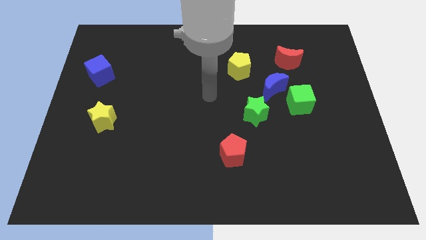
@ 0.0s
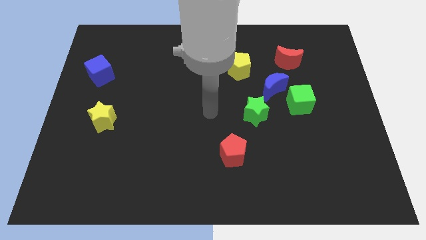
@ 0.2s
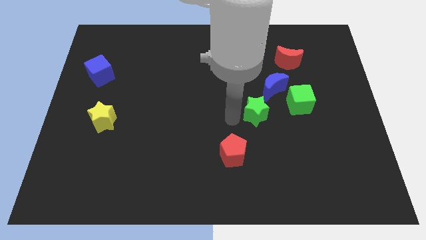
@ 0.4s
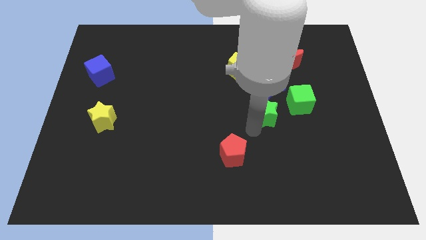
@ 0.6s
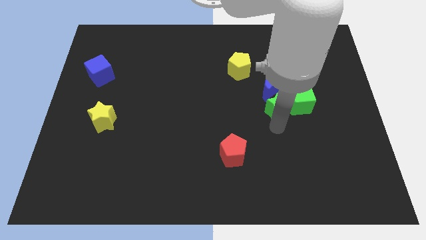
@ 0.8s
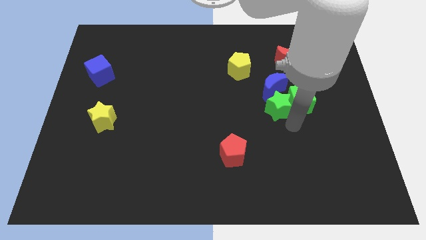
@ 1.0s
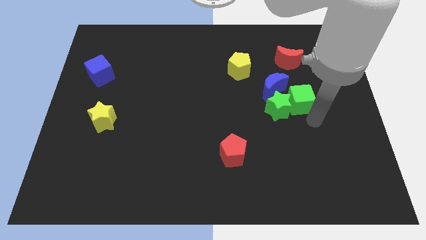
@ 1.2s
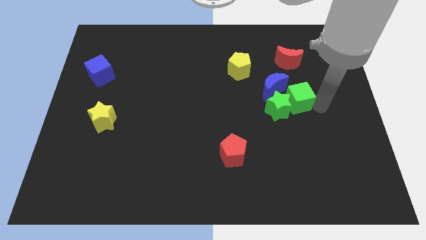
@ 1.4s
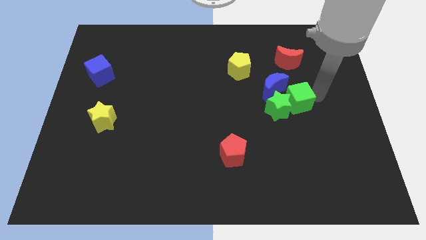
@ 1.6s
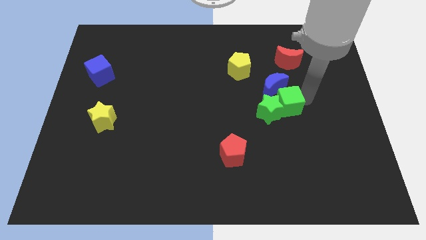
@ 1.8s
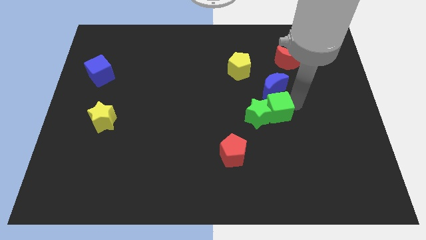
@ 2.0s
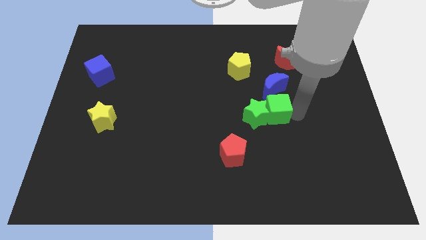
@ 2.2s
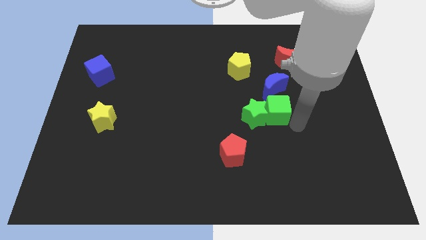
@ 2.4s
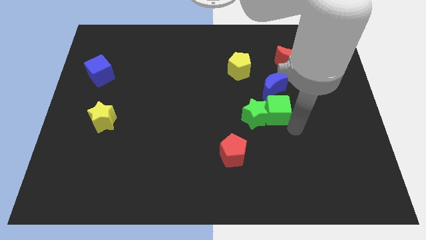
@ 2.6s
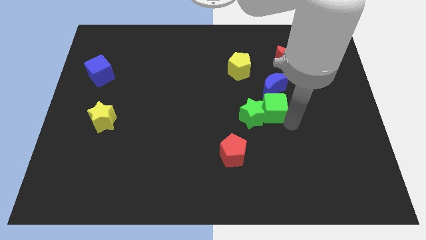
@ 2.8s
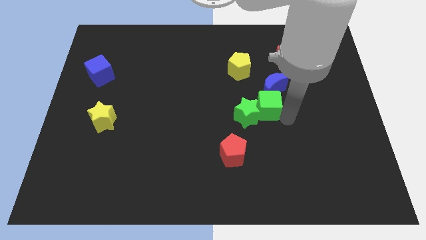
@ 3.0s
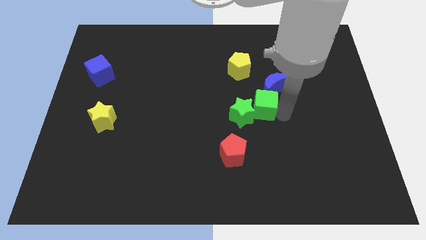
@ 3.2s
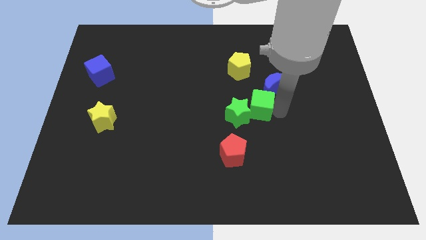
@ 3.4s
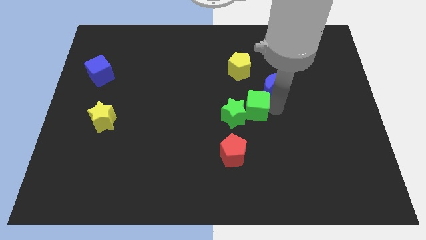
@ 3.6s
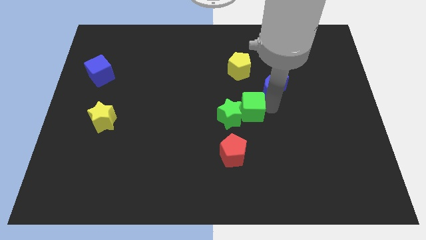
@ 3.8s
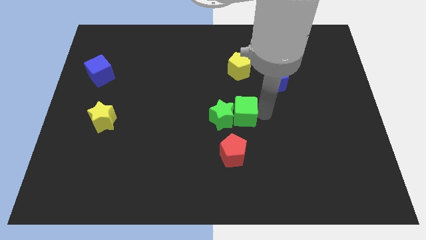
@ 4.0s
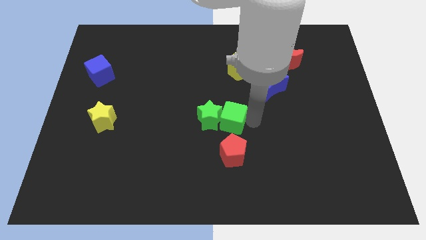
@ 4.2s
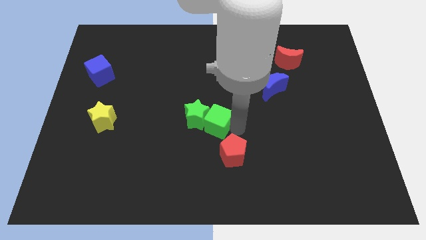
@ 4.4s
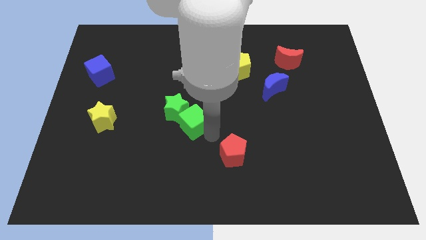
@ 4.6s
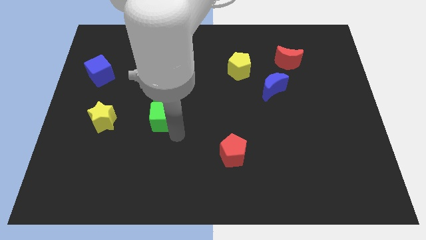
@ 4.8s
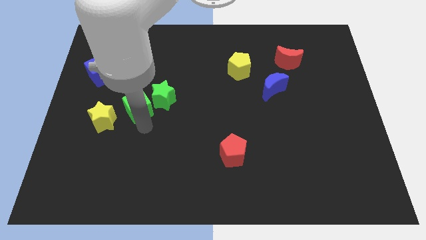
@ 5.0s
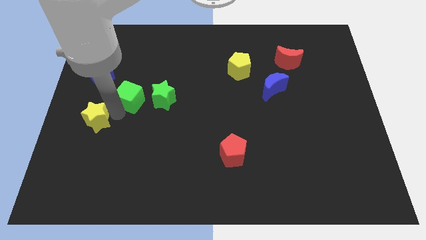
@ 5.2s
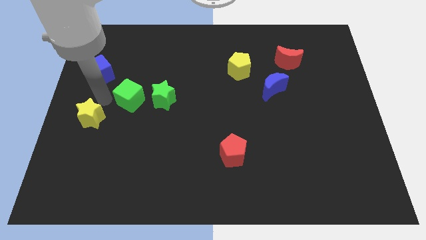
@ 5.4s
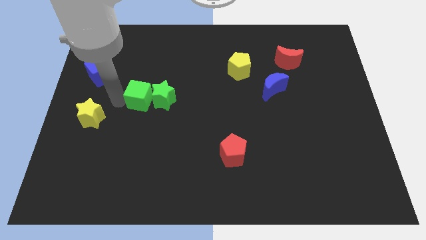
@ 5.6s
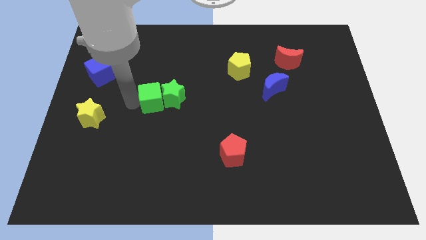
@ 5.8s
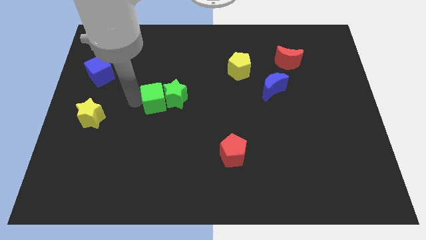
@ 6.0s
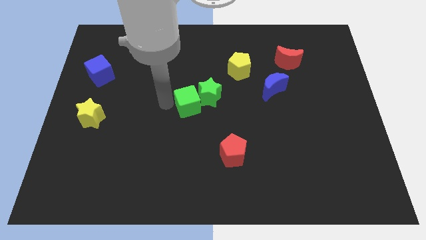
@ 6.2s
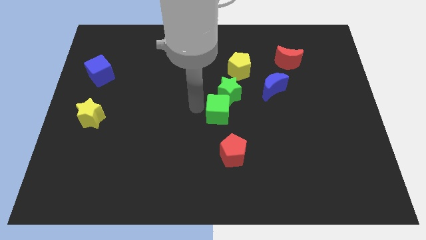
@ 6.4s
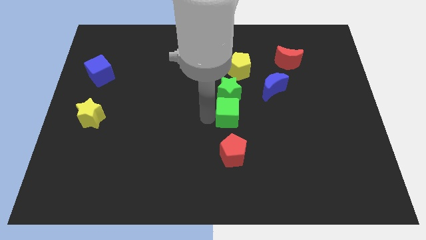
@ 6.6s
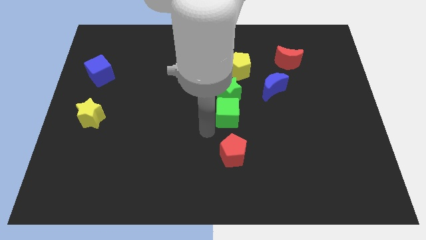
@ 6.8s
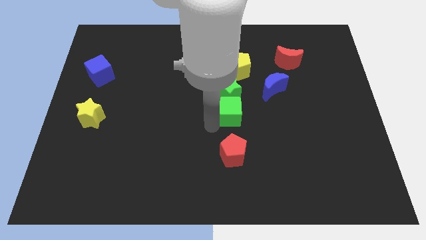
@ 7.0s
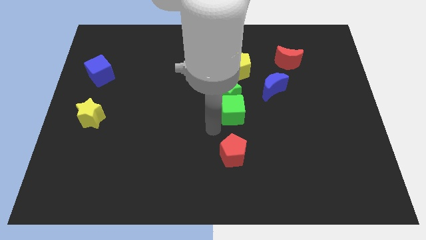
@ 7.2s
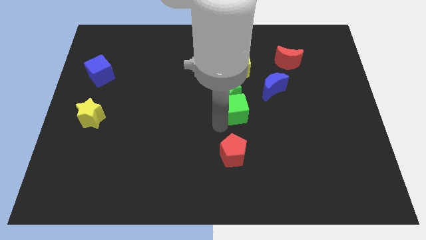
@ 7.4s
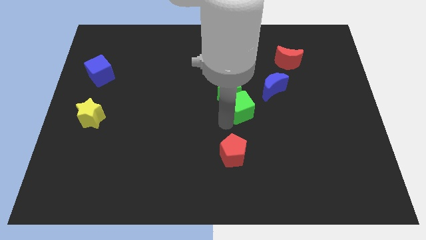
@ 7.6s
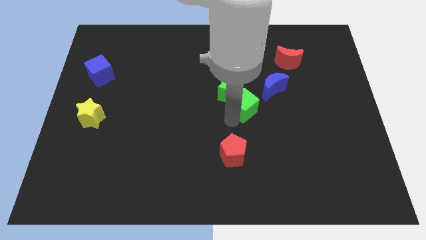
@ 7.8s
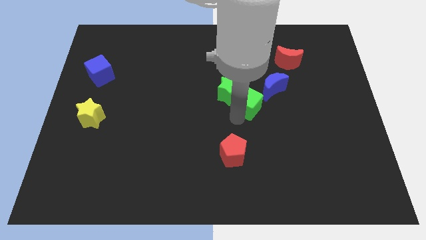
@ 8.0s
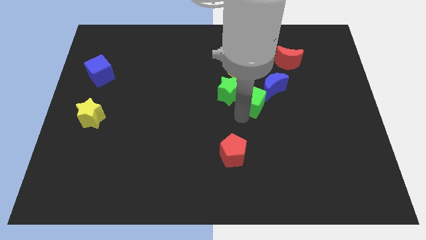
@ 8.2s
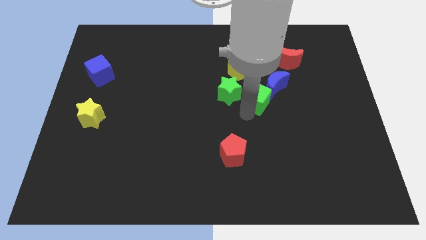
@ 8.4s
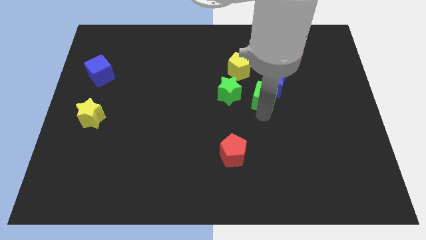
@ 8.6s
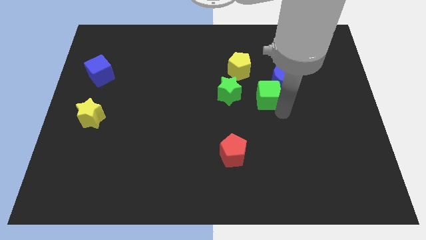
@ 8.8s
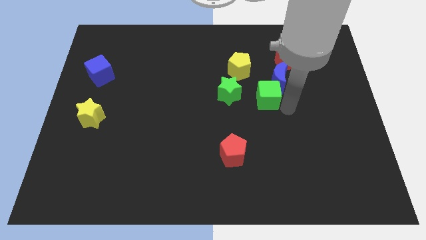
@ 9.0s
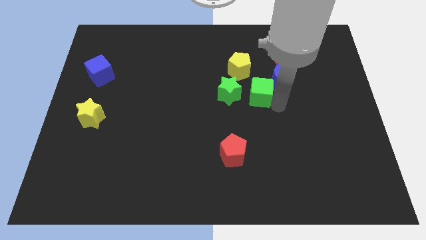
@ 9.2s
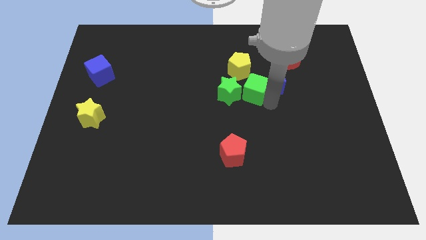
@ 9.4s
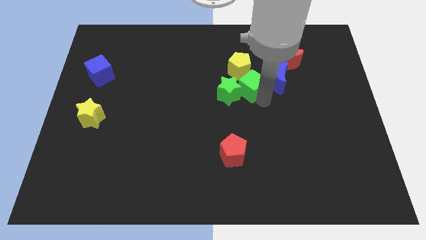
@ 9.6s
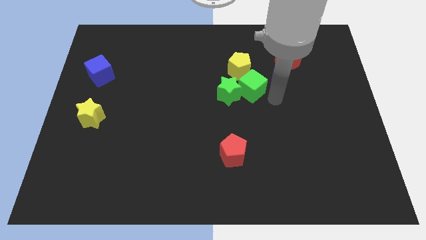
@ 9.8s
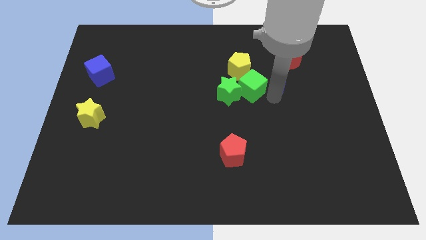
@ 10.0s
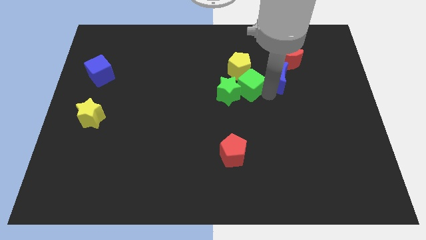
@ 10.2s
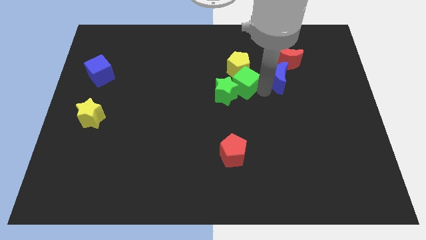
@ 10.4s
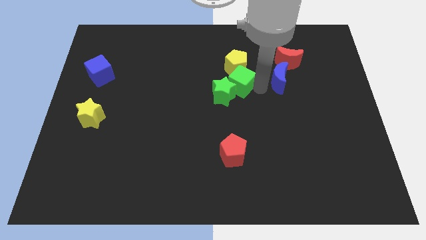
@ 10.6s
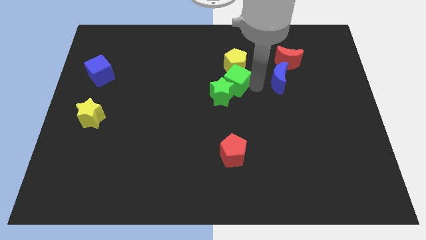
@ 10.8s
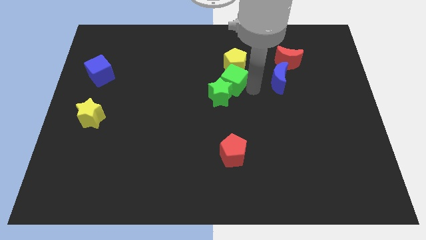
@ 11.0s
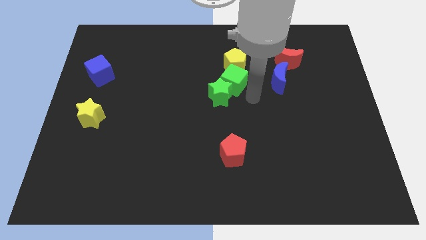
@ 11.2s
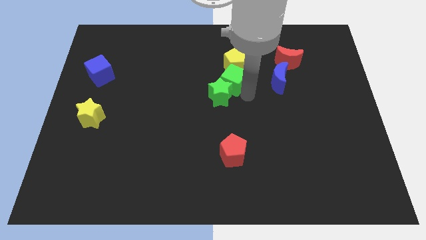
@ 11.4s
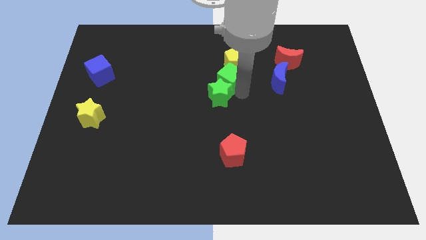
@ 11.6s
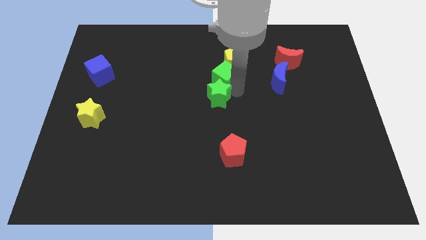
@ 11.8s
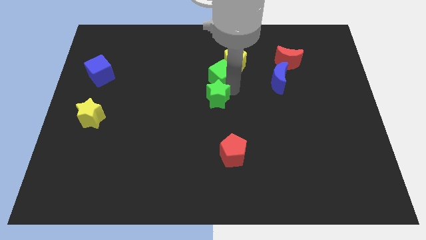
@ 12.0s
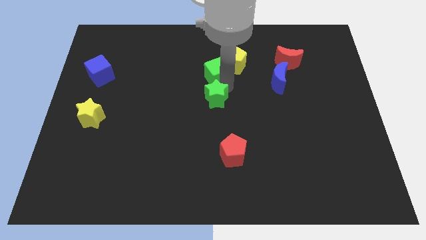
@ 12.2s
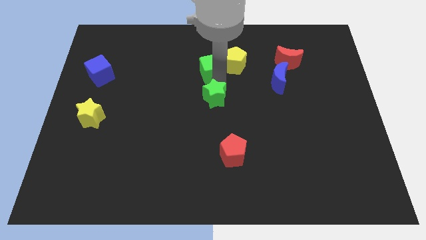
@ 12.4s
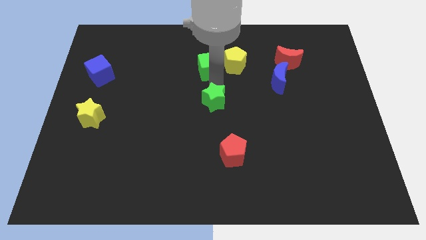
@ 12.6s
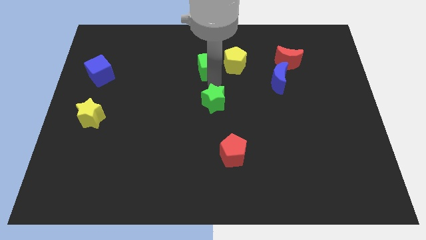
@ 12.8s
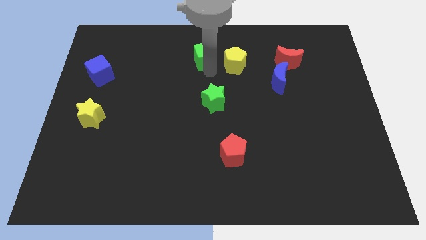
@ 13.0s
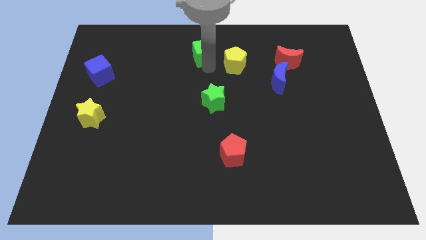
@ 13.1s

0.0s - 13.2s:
move the green cube to the towards your base
